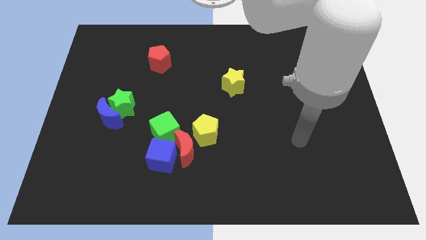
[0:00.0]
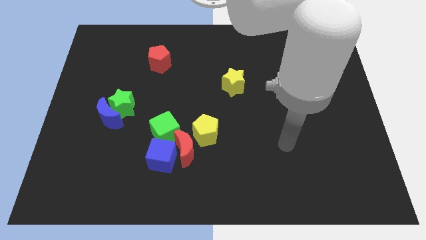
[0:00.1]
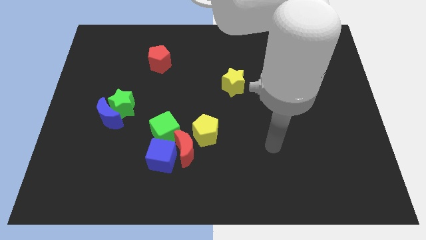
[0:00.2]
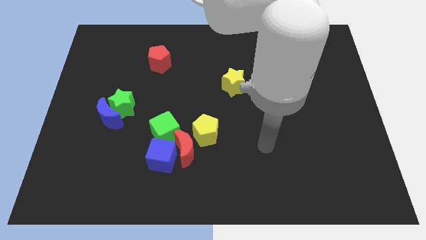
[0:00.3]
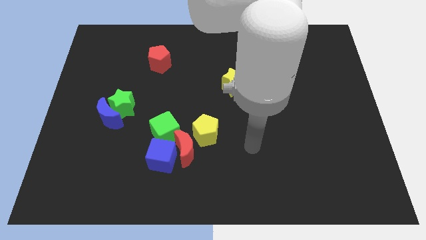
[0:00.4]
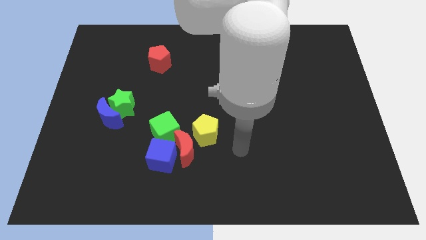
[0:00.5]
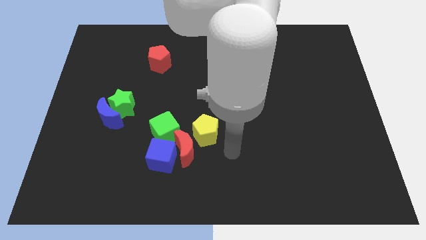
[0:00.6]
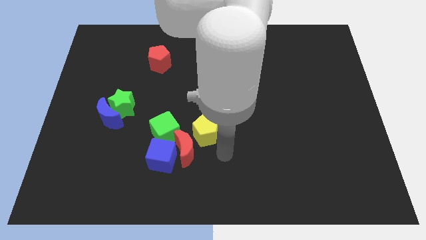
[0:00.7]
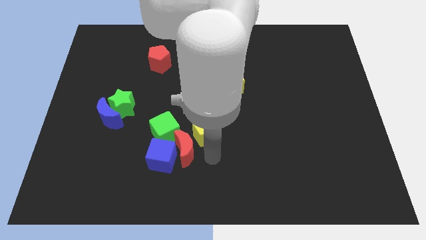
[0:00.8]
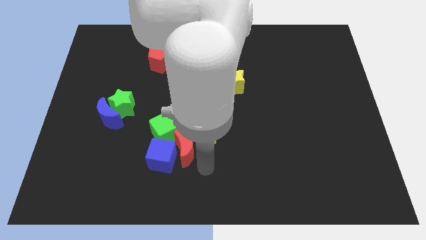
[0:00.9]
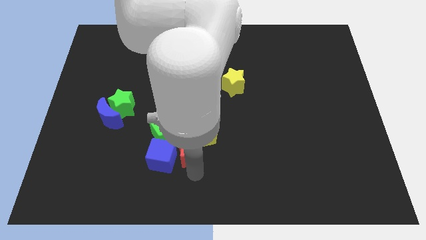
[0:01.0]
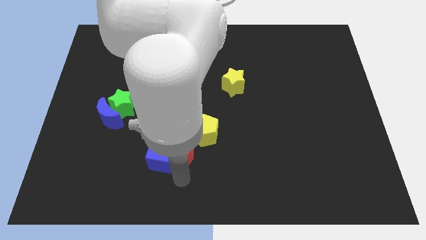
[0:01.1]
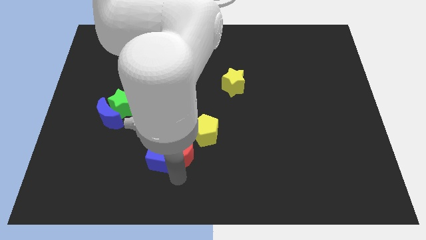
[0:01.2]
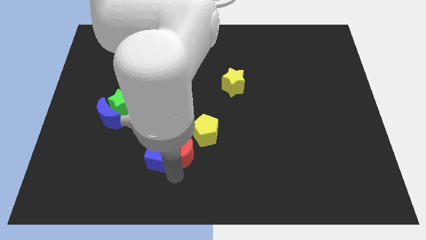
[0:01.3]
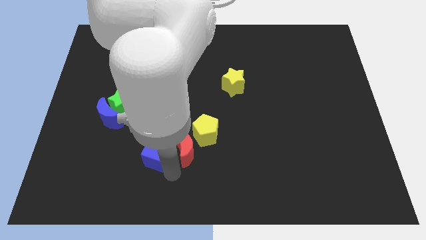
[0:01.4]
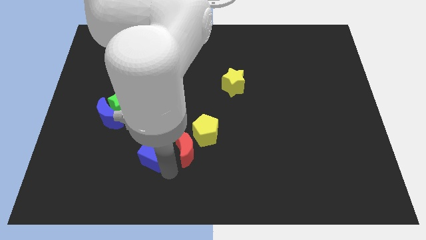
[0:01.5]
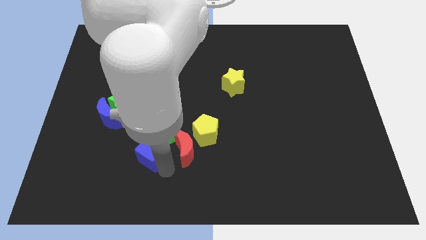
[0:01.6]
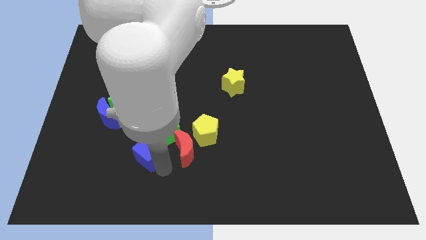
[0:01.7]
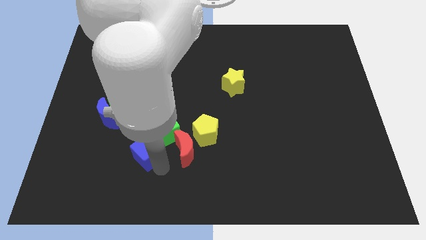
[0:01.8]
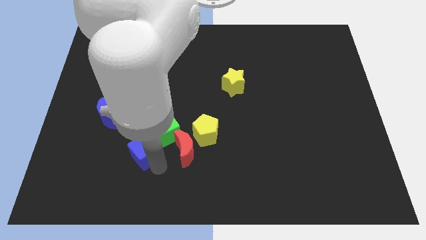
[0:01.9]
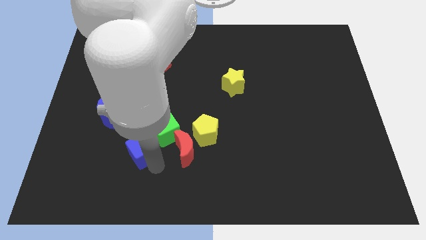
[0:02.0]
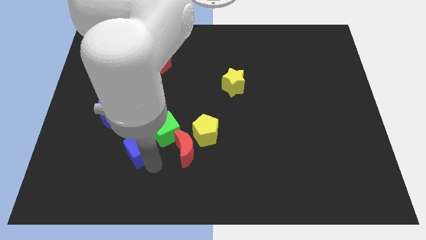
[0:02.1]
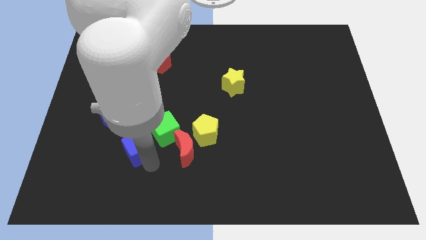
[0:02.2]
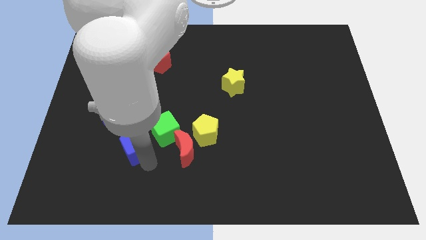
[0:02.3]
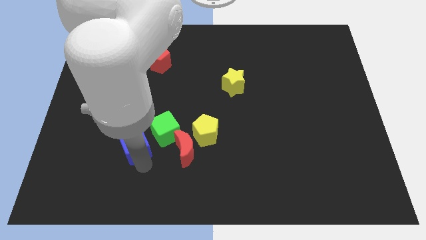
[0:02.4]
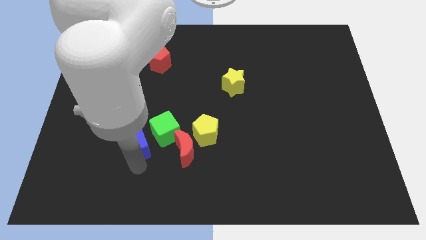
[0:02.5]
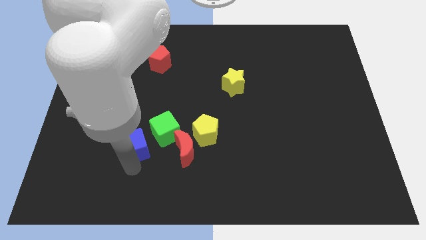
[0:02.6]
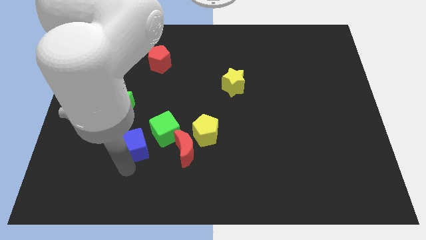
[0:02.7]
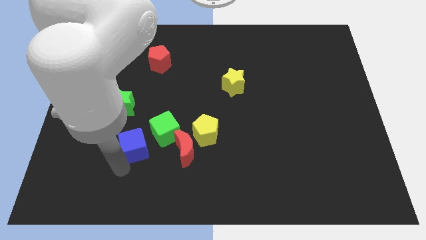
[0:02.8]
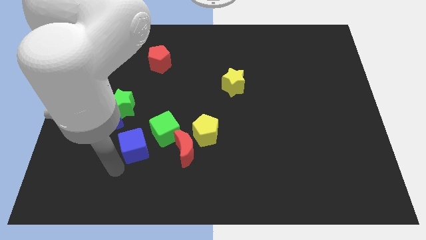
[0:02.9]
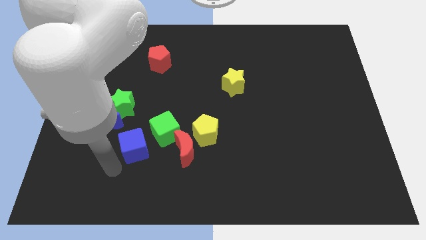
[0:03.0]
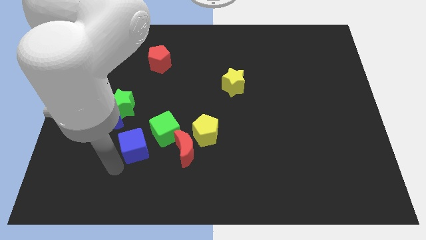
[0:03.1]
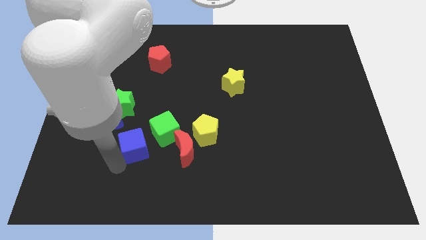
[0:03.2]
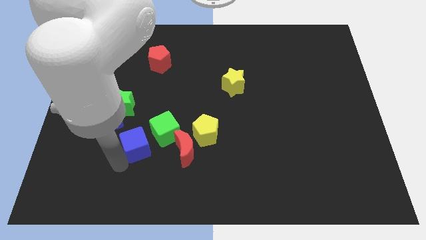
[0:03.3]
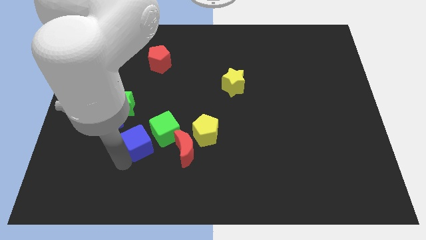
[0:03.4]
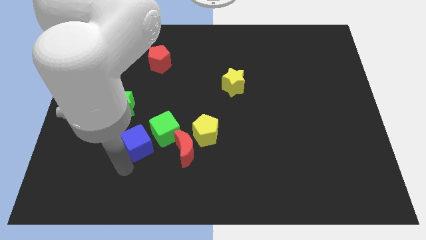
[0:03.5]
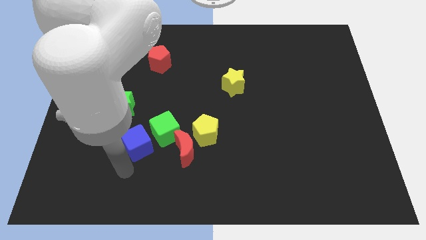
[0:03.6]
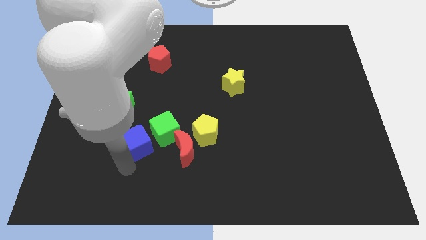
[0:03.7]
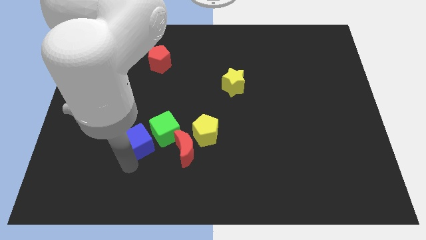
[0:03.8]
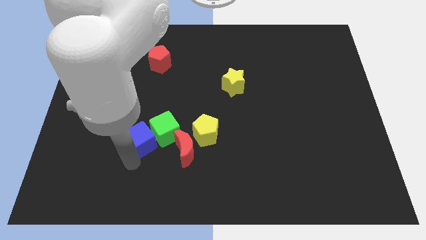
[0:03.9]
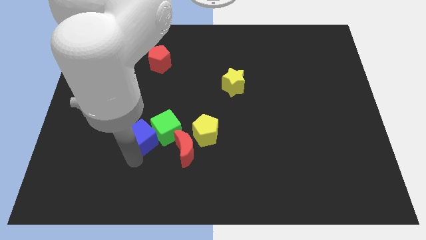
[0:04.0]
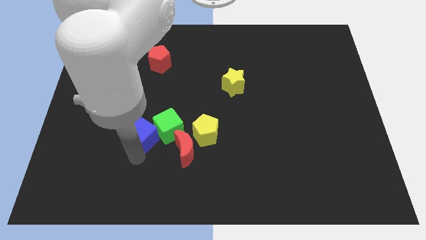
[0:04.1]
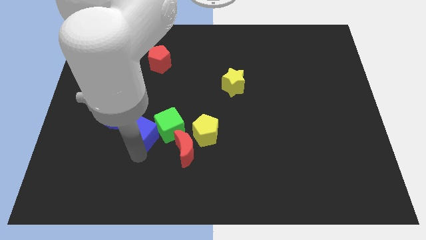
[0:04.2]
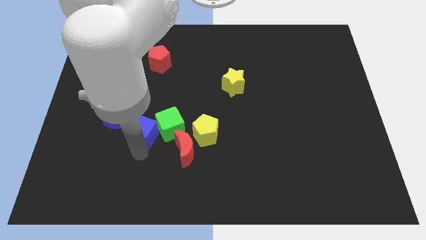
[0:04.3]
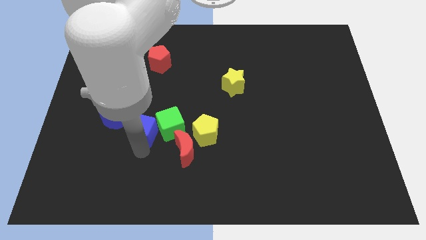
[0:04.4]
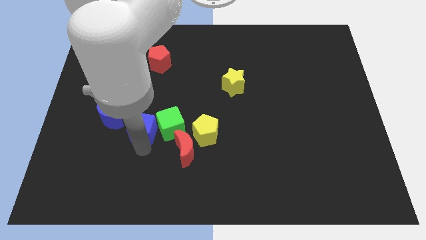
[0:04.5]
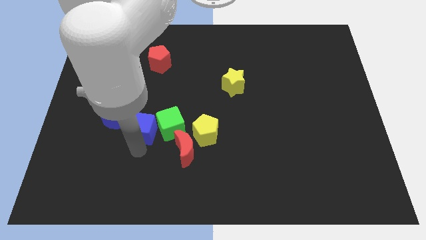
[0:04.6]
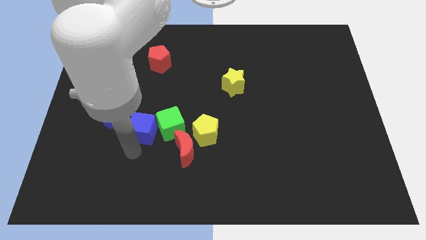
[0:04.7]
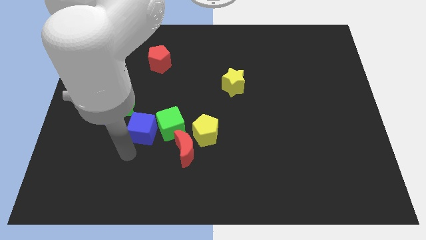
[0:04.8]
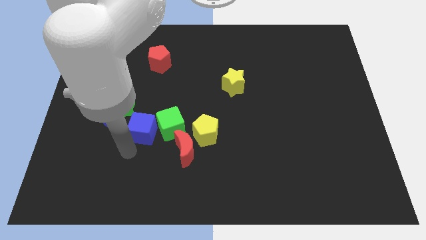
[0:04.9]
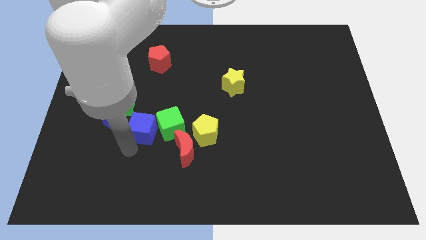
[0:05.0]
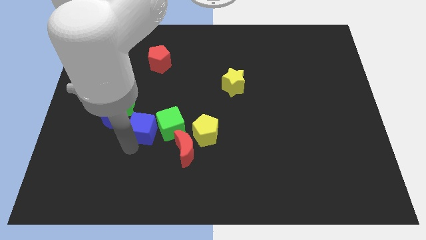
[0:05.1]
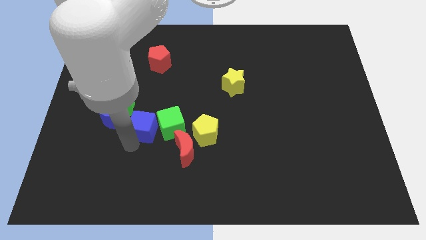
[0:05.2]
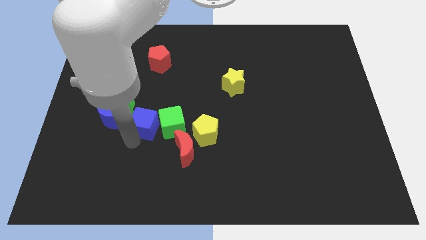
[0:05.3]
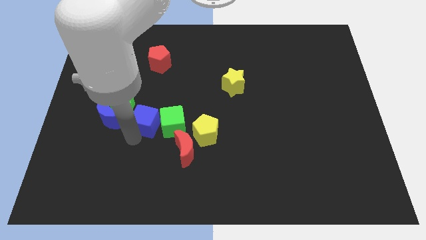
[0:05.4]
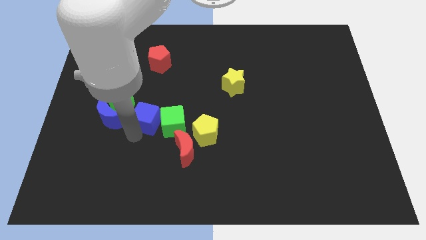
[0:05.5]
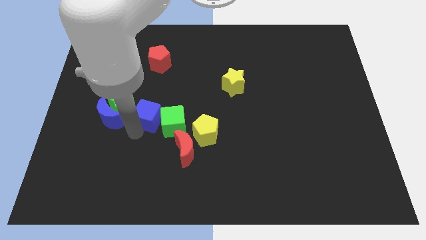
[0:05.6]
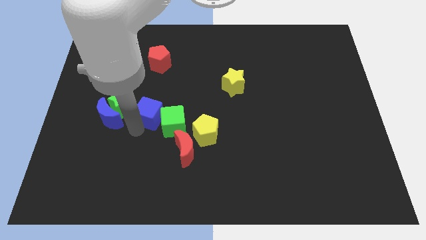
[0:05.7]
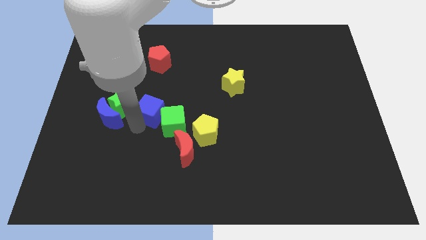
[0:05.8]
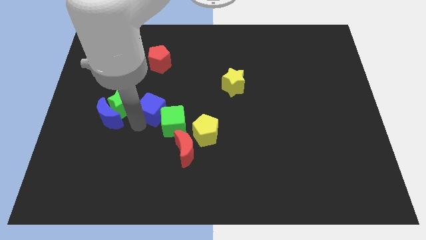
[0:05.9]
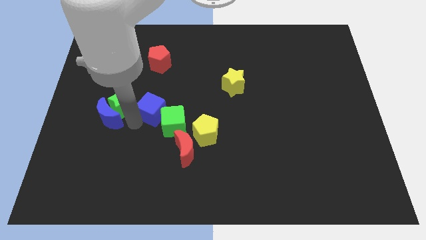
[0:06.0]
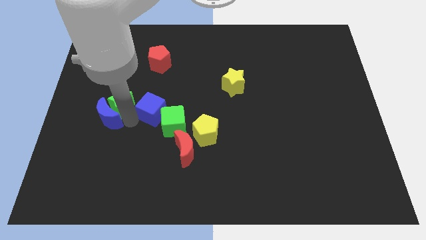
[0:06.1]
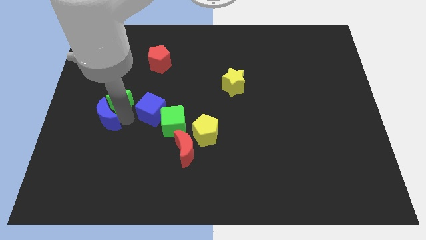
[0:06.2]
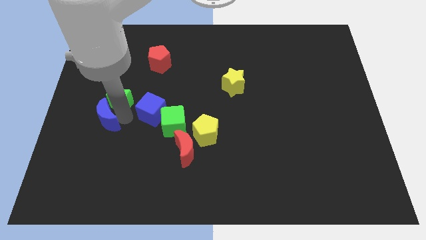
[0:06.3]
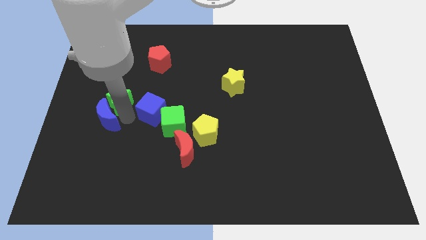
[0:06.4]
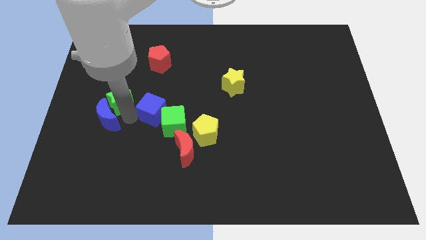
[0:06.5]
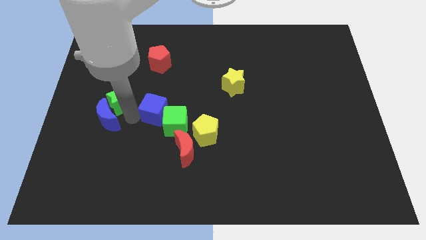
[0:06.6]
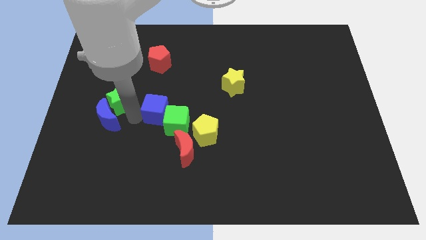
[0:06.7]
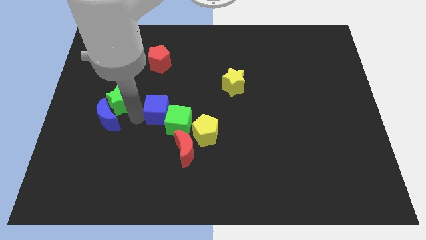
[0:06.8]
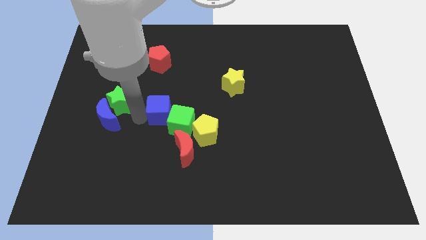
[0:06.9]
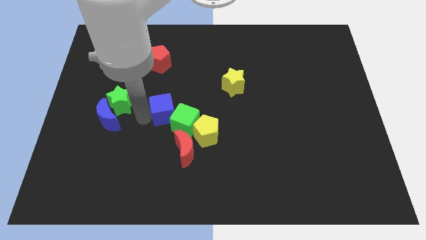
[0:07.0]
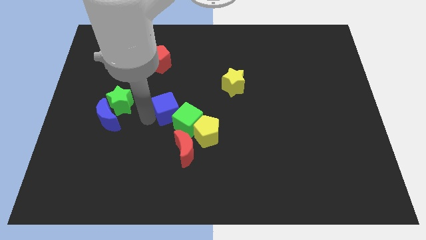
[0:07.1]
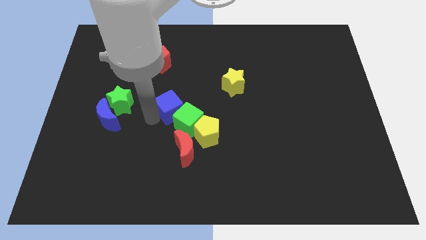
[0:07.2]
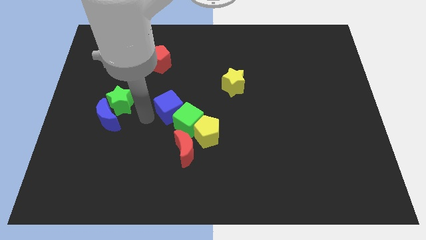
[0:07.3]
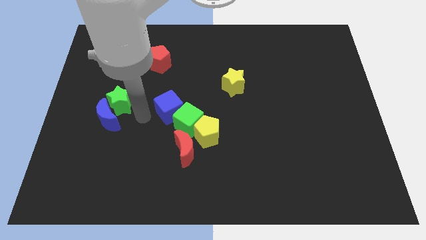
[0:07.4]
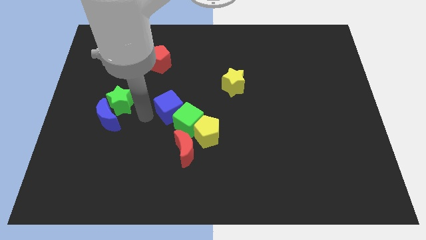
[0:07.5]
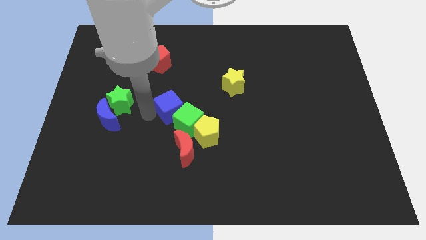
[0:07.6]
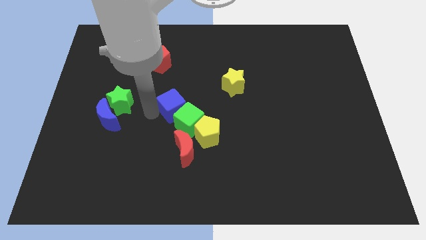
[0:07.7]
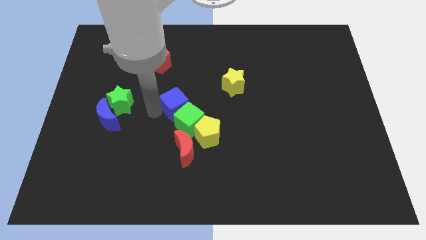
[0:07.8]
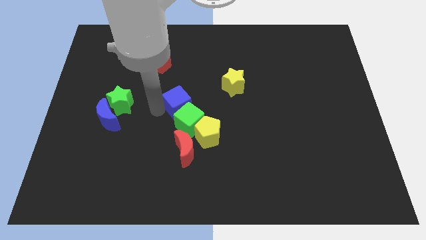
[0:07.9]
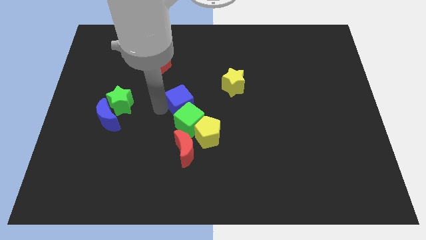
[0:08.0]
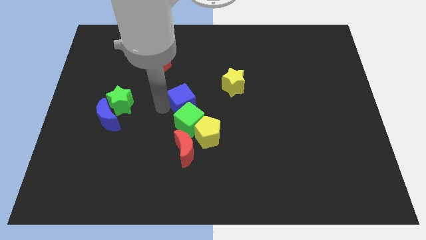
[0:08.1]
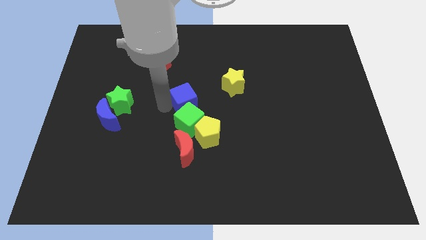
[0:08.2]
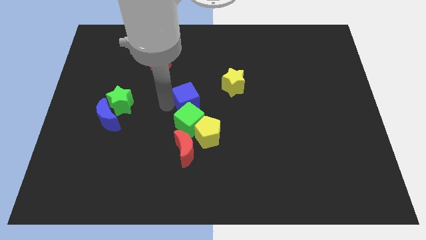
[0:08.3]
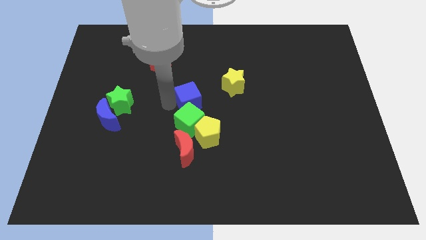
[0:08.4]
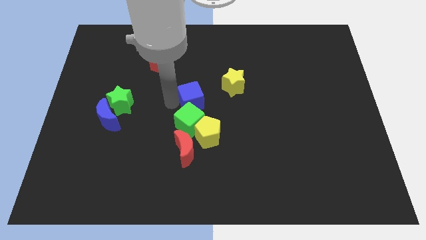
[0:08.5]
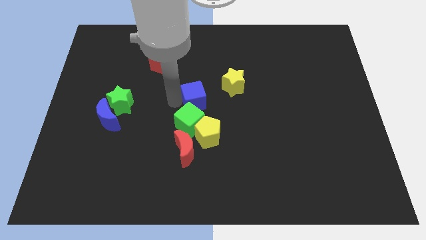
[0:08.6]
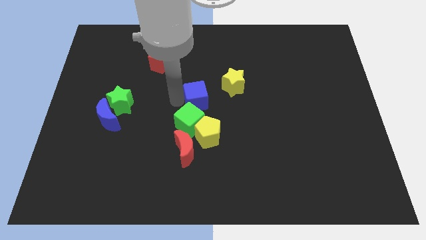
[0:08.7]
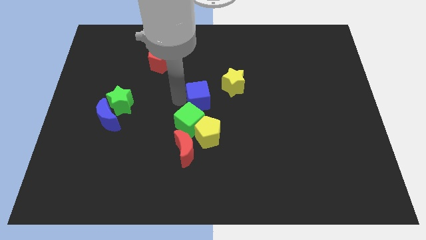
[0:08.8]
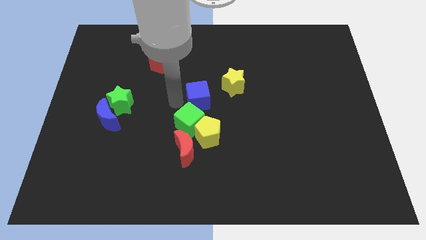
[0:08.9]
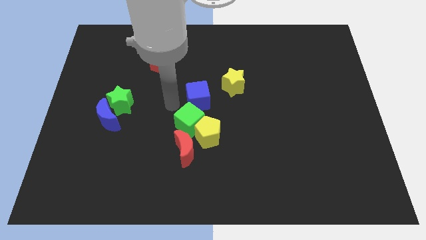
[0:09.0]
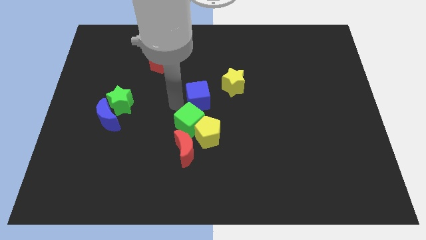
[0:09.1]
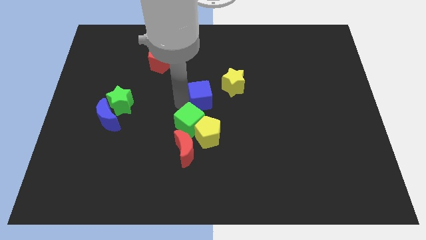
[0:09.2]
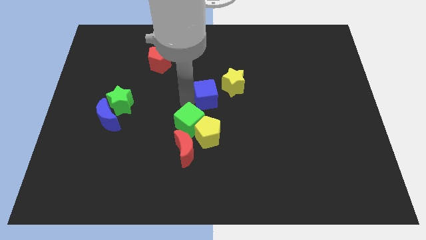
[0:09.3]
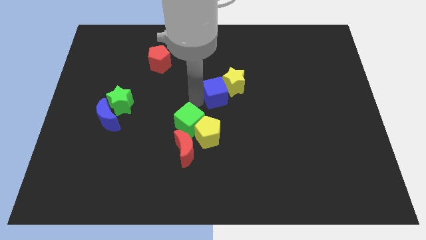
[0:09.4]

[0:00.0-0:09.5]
put the blue cube close to the yellow star
